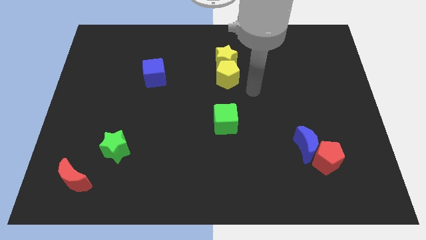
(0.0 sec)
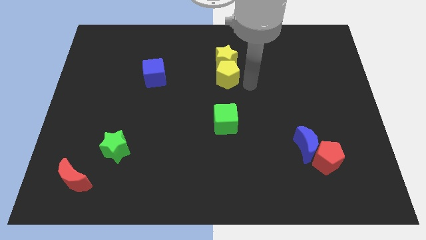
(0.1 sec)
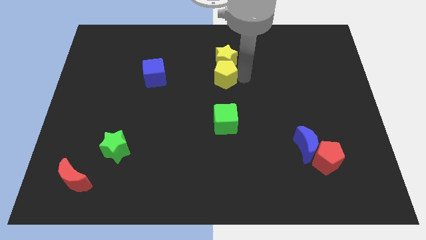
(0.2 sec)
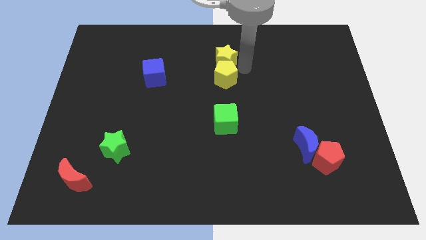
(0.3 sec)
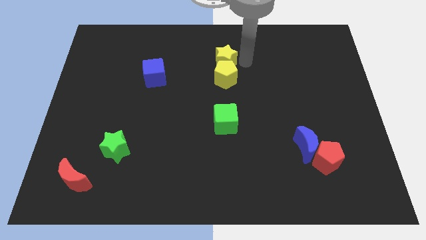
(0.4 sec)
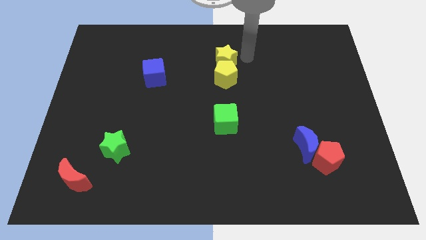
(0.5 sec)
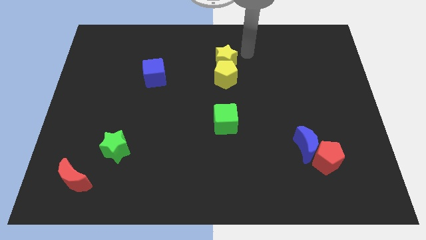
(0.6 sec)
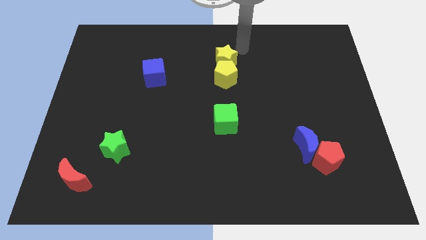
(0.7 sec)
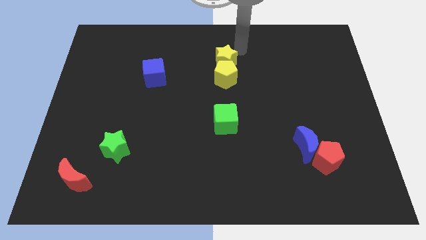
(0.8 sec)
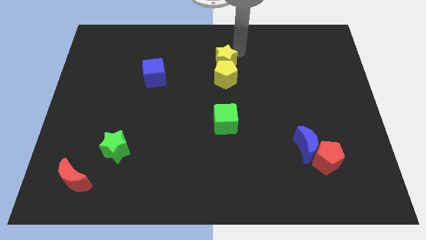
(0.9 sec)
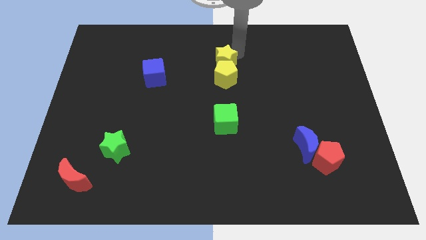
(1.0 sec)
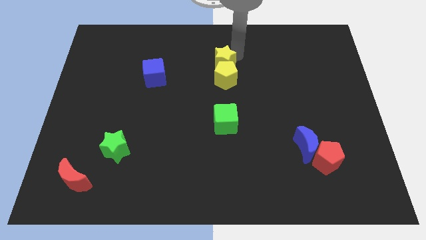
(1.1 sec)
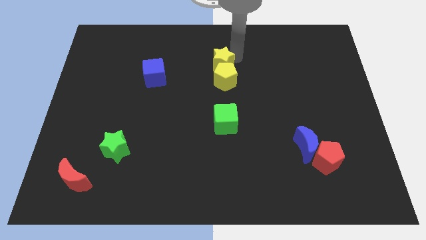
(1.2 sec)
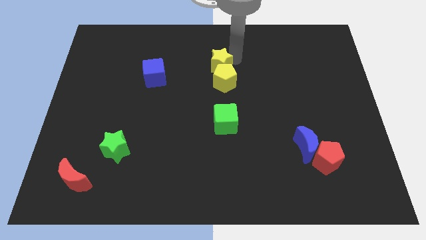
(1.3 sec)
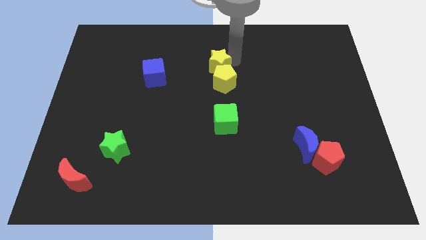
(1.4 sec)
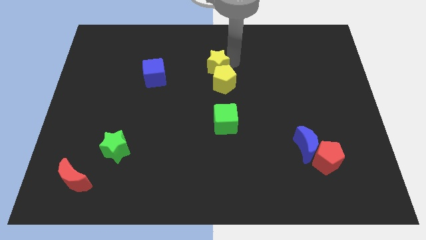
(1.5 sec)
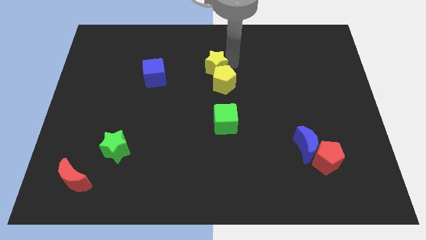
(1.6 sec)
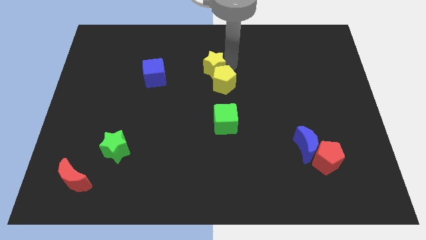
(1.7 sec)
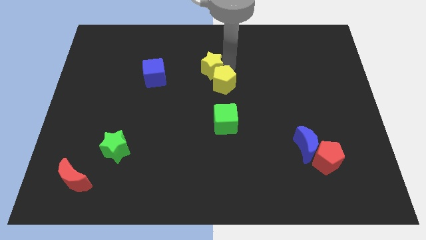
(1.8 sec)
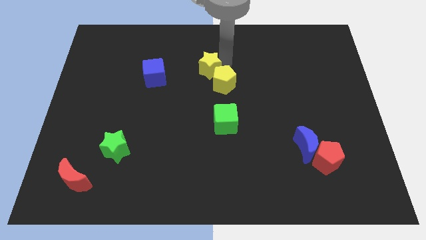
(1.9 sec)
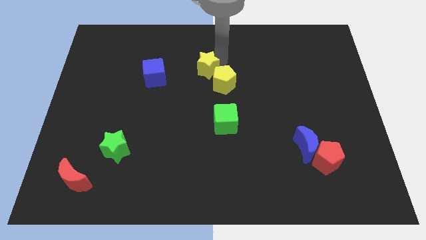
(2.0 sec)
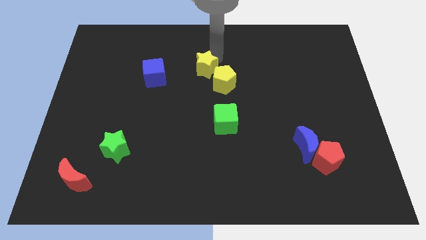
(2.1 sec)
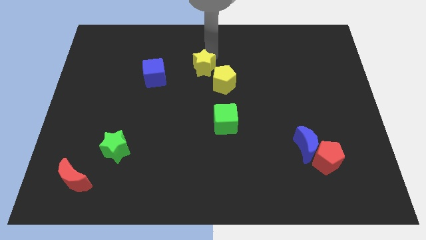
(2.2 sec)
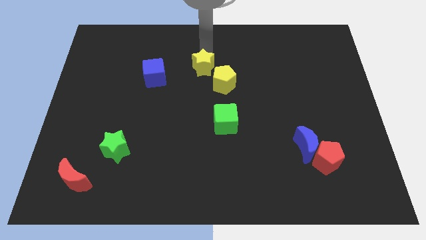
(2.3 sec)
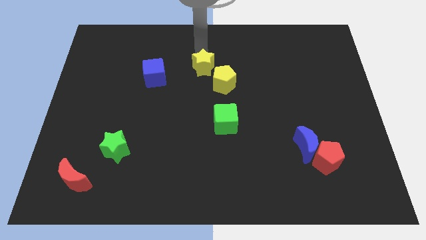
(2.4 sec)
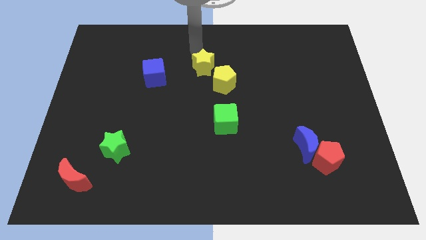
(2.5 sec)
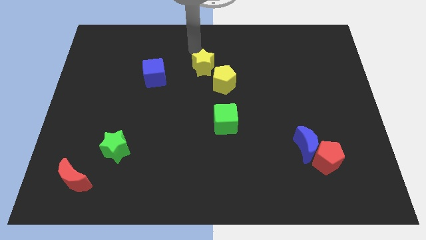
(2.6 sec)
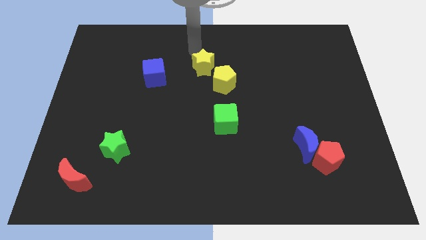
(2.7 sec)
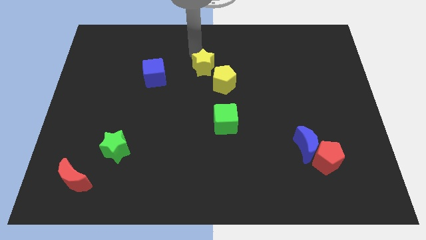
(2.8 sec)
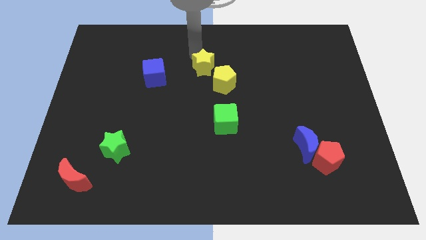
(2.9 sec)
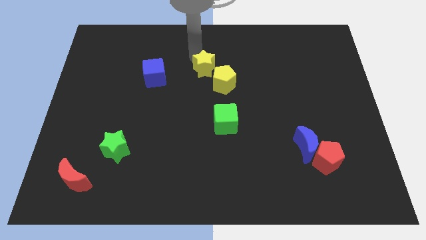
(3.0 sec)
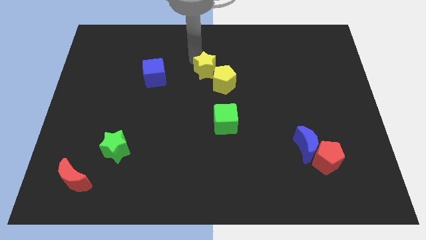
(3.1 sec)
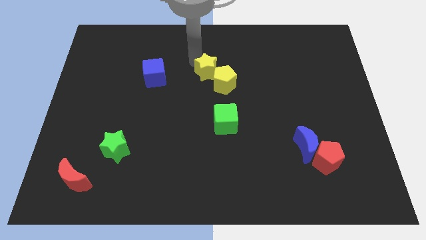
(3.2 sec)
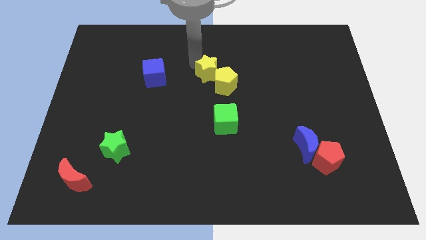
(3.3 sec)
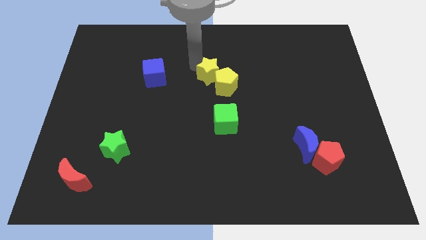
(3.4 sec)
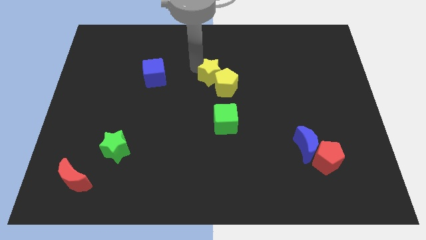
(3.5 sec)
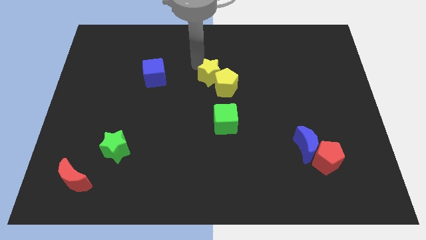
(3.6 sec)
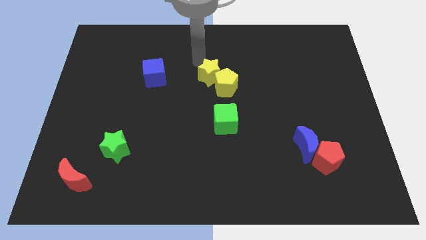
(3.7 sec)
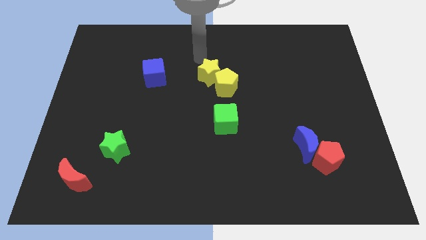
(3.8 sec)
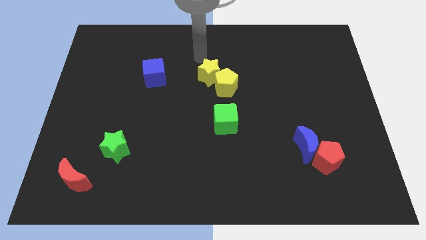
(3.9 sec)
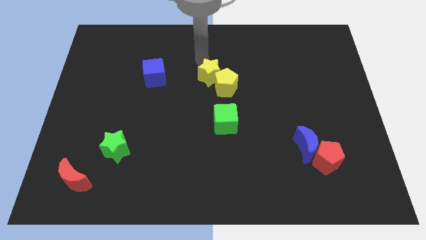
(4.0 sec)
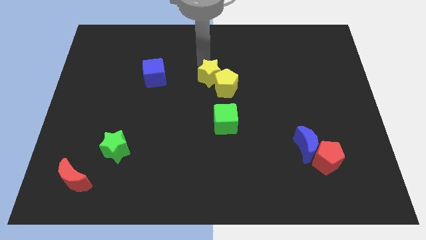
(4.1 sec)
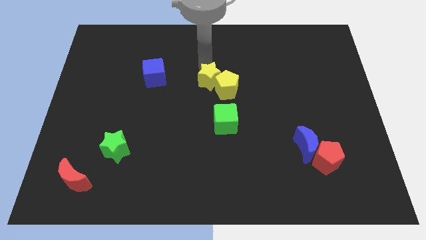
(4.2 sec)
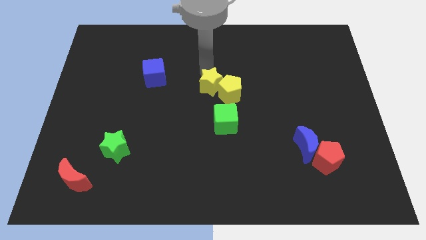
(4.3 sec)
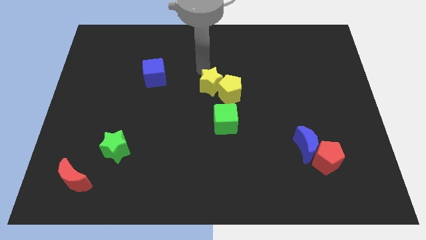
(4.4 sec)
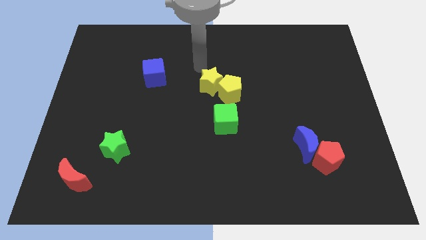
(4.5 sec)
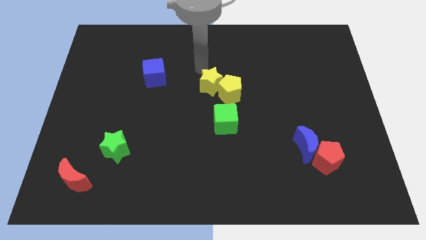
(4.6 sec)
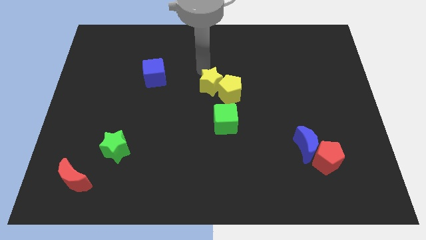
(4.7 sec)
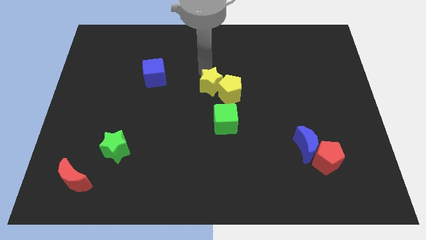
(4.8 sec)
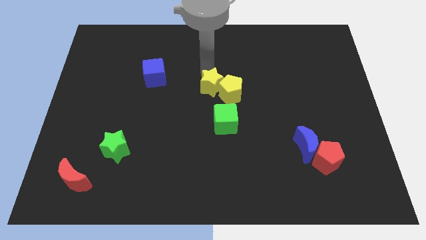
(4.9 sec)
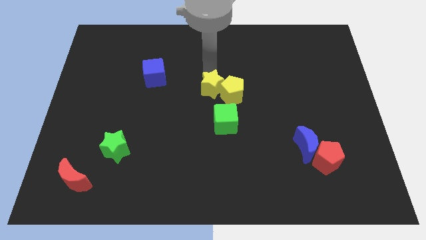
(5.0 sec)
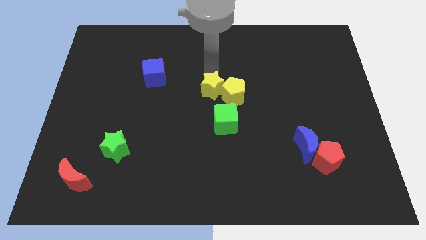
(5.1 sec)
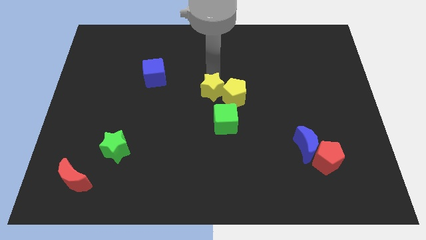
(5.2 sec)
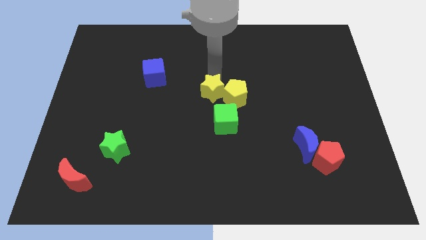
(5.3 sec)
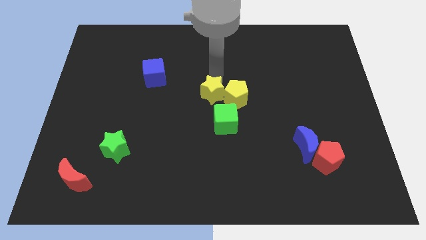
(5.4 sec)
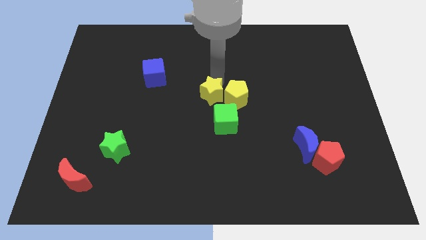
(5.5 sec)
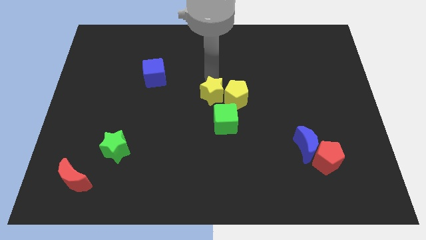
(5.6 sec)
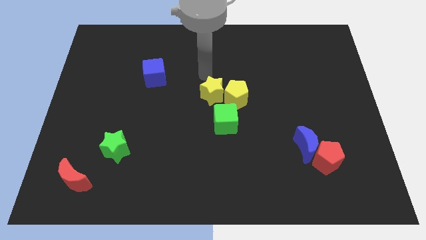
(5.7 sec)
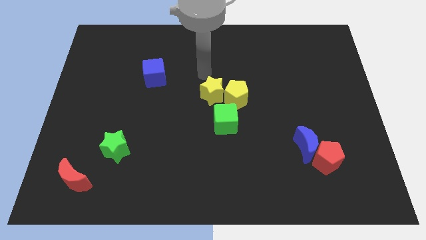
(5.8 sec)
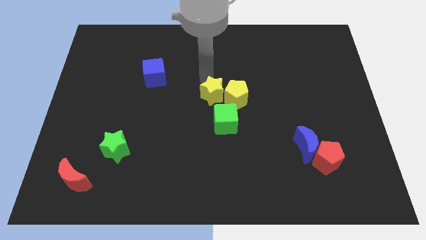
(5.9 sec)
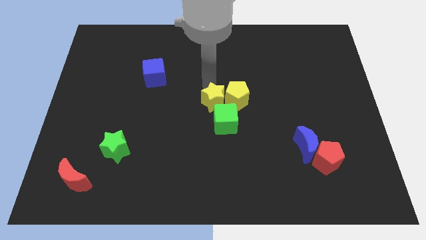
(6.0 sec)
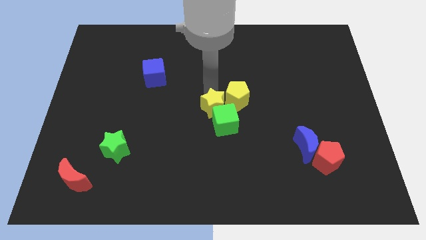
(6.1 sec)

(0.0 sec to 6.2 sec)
put the yellow star to the green cube
